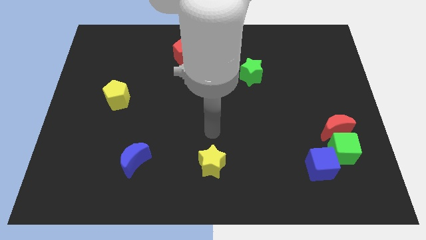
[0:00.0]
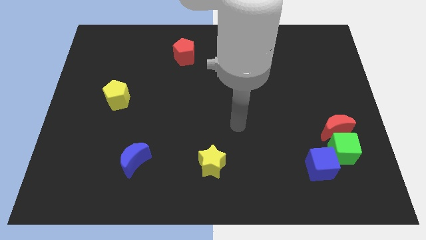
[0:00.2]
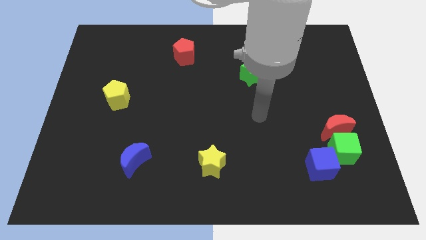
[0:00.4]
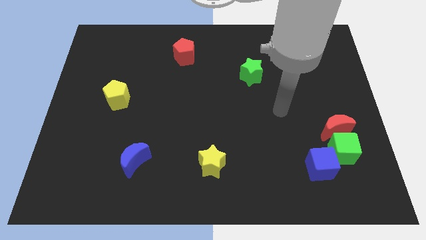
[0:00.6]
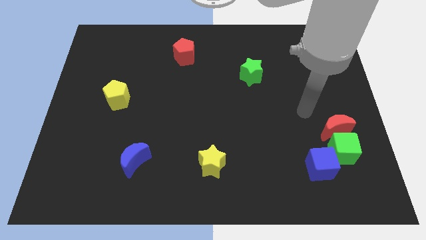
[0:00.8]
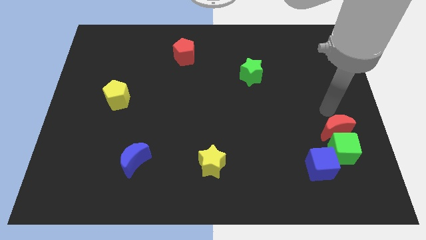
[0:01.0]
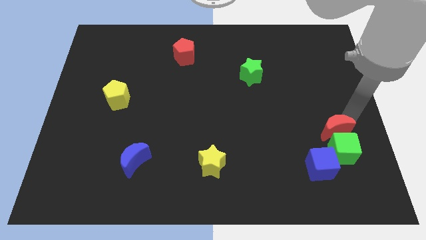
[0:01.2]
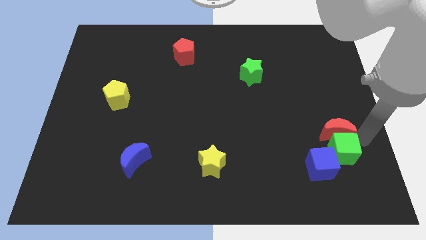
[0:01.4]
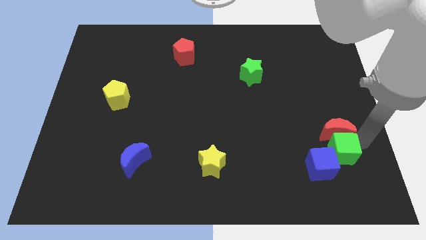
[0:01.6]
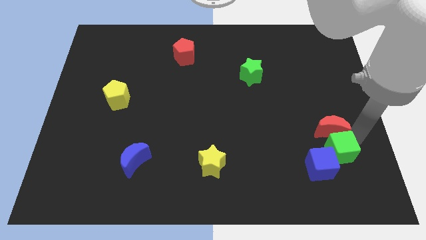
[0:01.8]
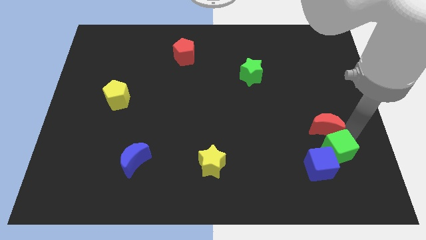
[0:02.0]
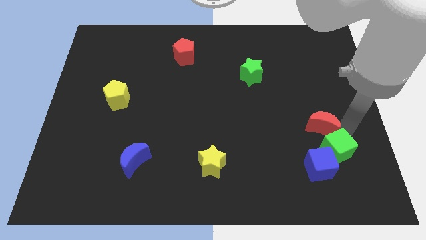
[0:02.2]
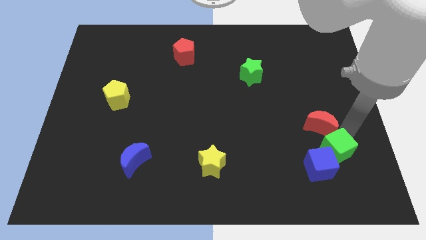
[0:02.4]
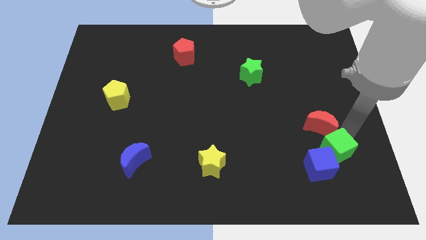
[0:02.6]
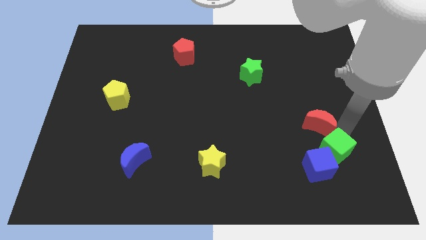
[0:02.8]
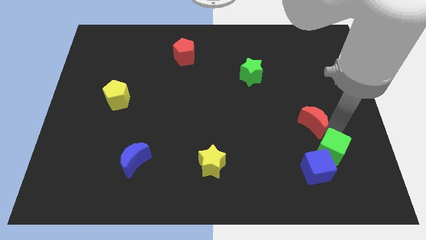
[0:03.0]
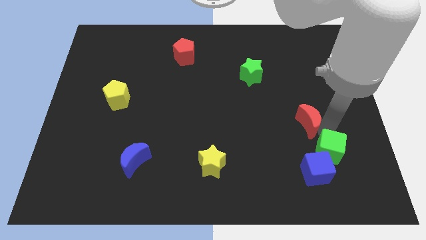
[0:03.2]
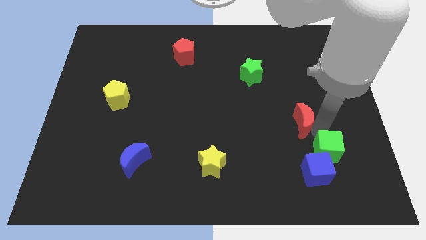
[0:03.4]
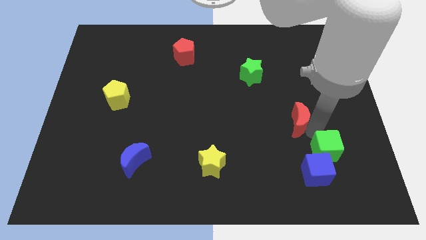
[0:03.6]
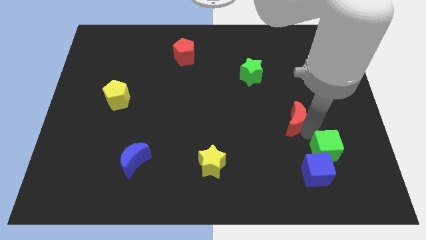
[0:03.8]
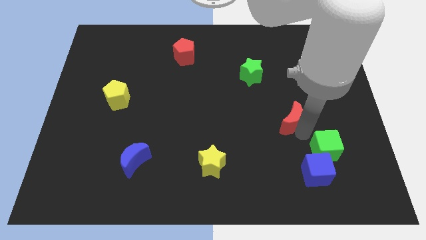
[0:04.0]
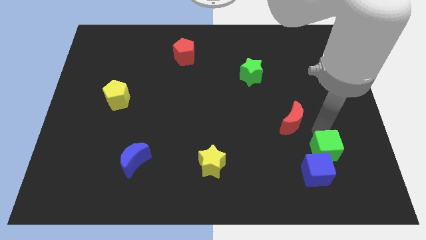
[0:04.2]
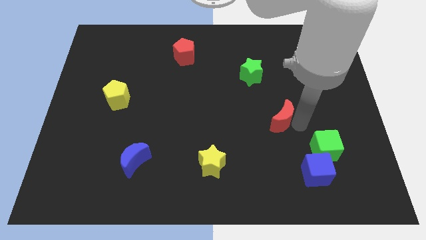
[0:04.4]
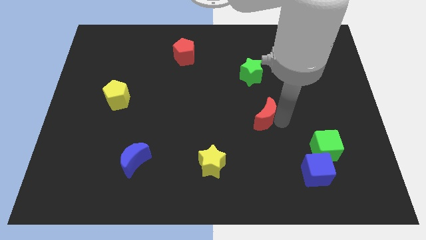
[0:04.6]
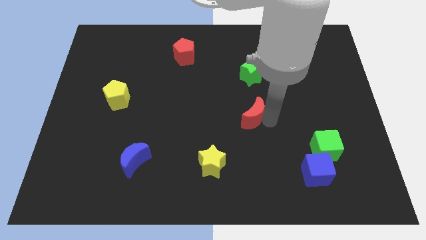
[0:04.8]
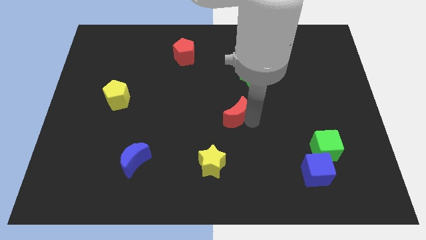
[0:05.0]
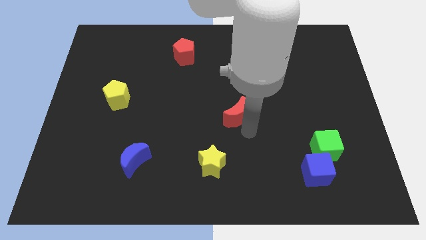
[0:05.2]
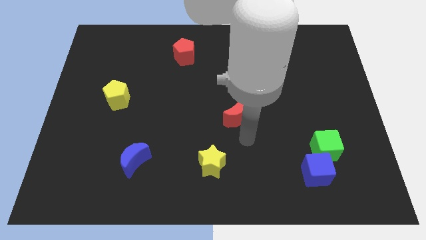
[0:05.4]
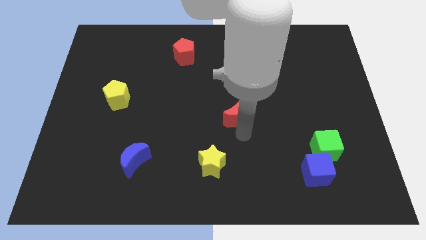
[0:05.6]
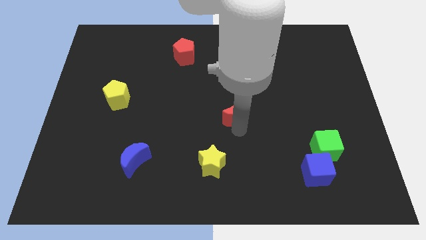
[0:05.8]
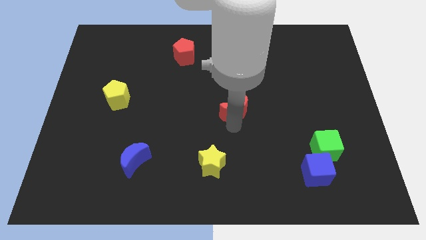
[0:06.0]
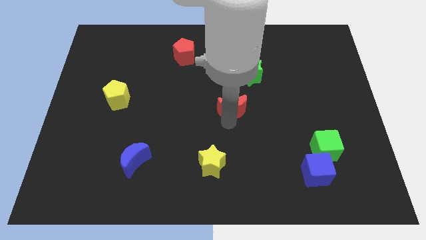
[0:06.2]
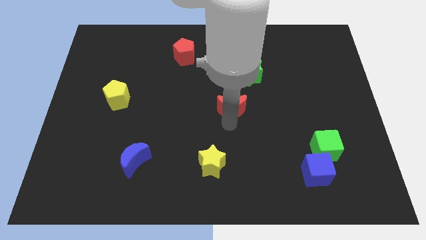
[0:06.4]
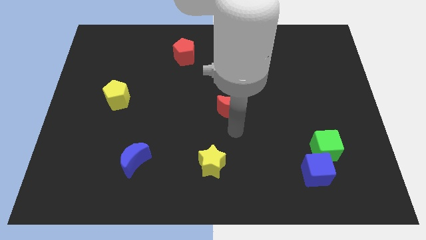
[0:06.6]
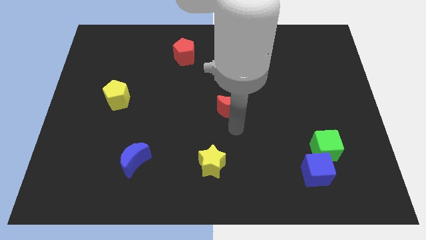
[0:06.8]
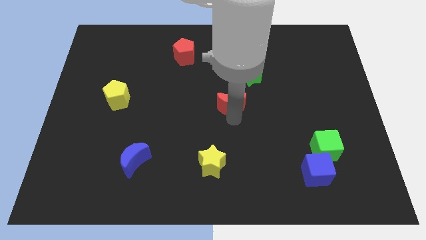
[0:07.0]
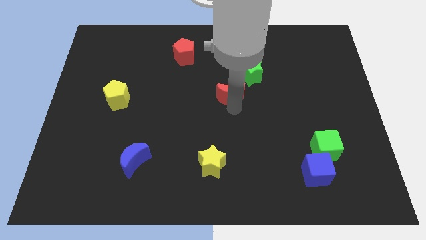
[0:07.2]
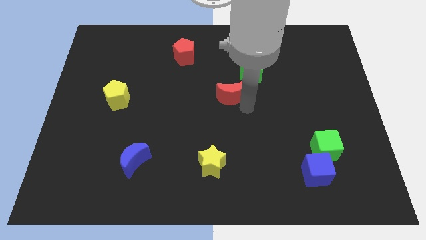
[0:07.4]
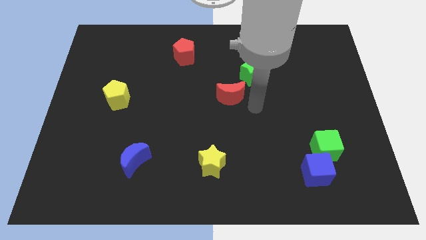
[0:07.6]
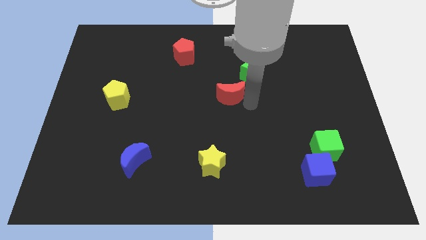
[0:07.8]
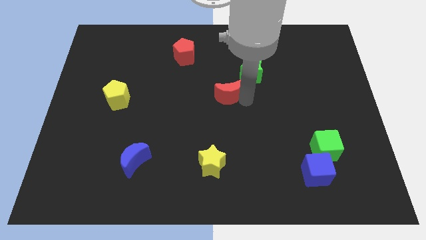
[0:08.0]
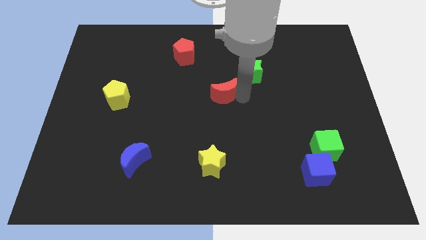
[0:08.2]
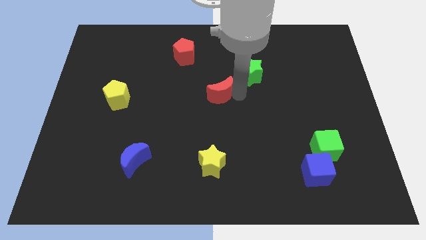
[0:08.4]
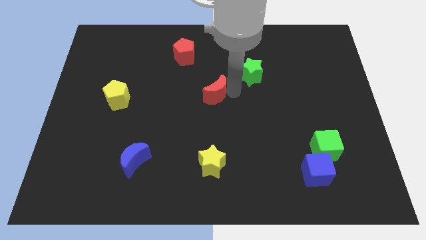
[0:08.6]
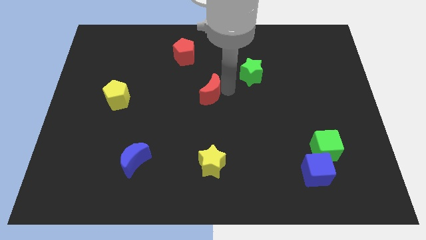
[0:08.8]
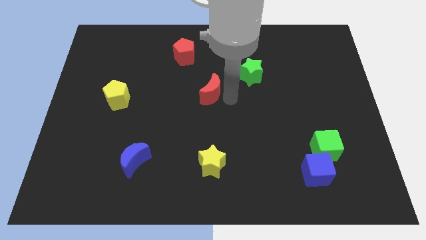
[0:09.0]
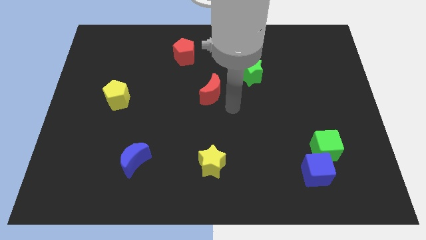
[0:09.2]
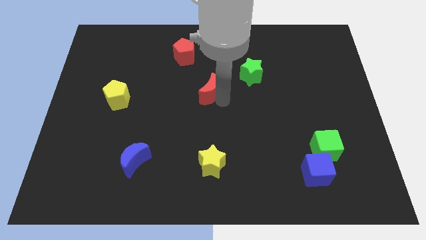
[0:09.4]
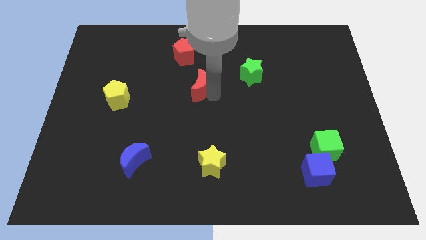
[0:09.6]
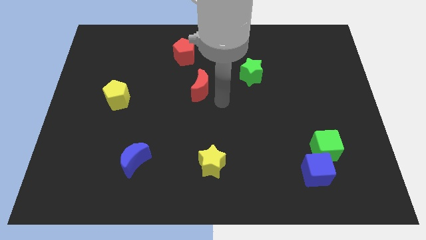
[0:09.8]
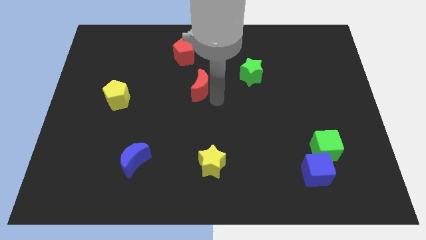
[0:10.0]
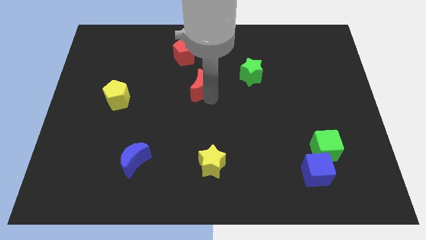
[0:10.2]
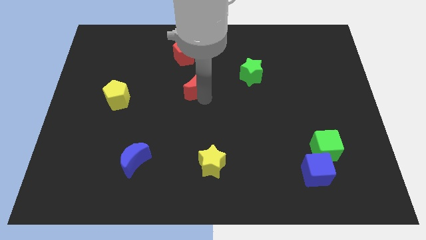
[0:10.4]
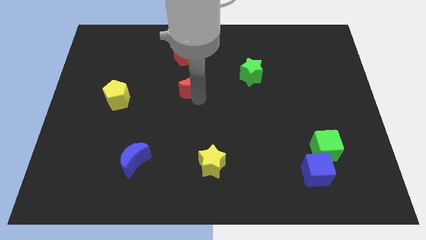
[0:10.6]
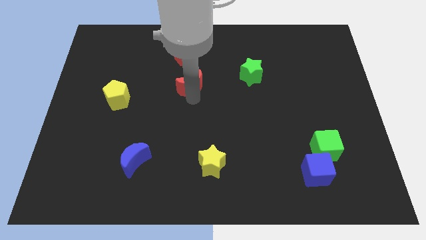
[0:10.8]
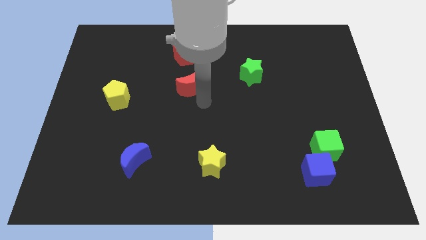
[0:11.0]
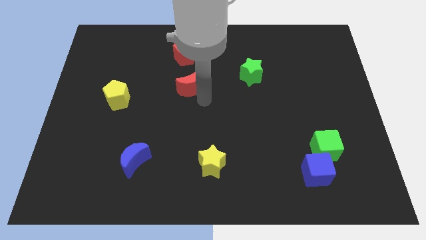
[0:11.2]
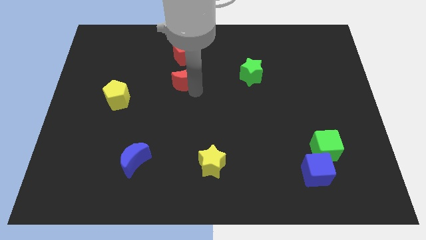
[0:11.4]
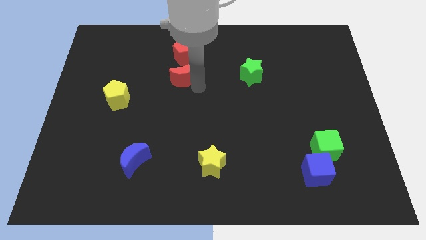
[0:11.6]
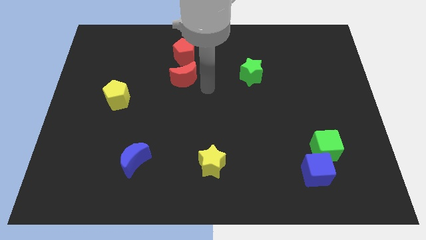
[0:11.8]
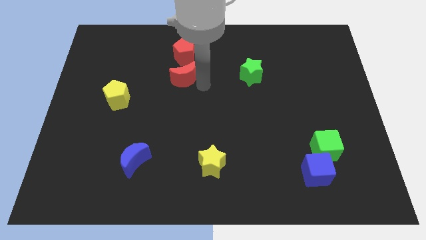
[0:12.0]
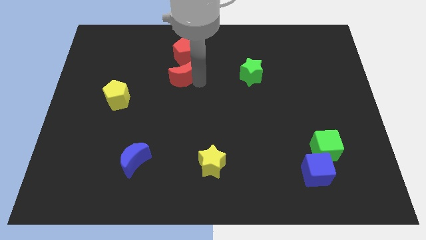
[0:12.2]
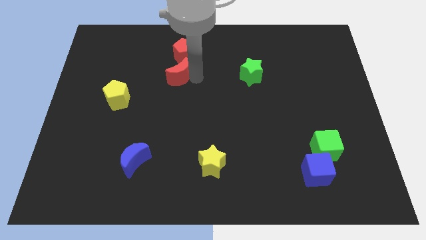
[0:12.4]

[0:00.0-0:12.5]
push the red moon to the bottom left of the red pentagon

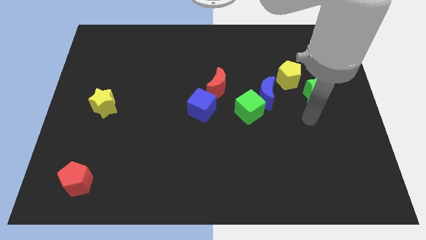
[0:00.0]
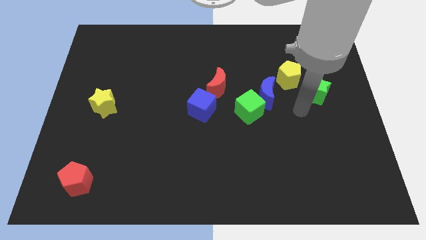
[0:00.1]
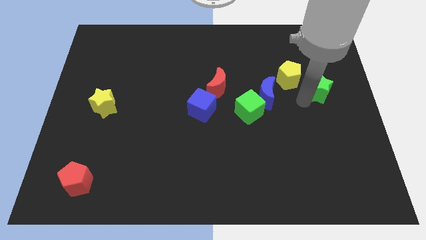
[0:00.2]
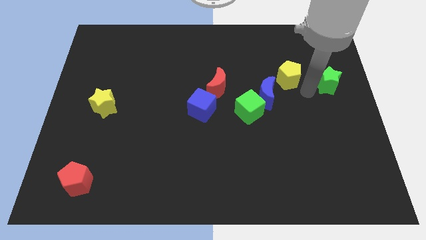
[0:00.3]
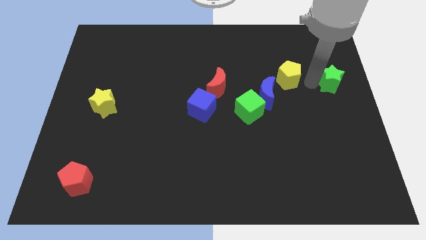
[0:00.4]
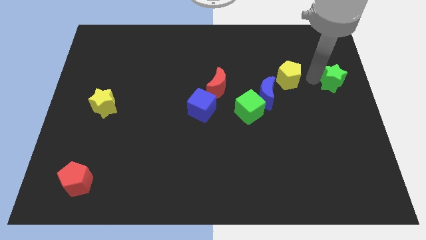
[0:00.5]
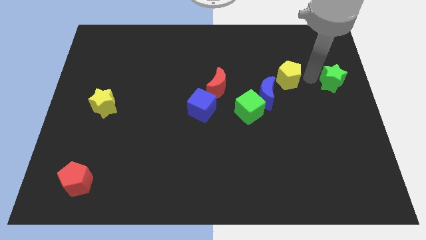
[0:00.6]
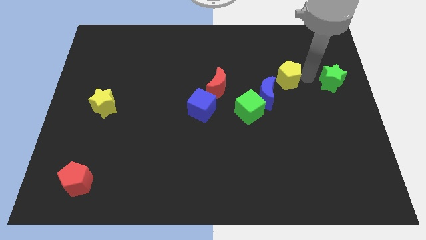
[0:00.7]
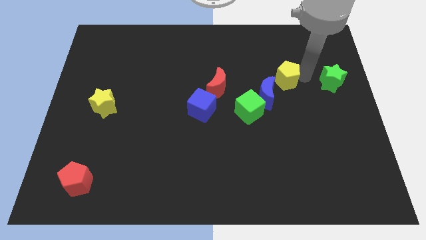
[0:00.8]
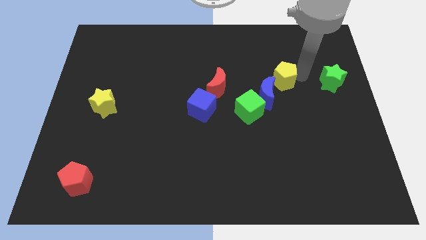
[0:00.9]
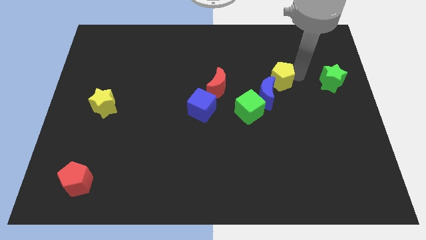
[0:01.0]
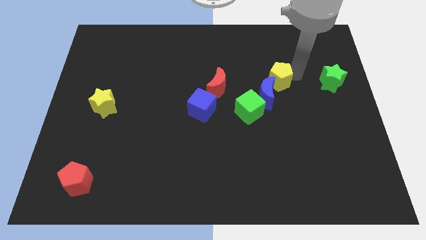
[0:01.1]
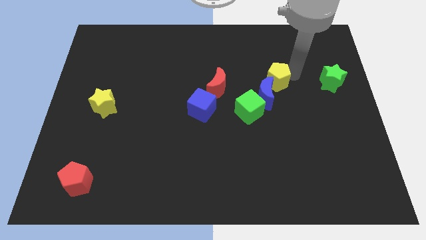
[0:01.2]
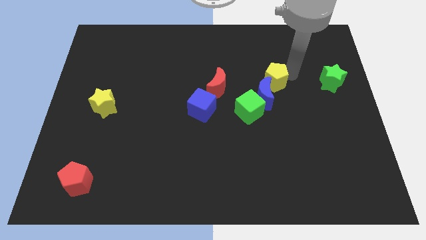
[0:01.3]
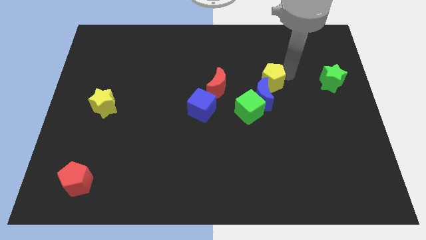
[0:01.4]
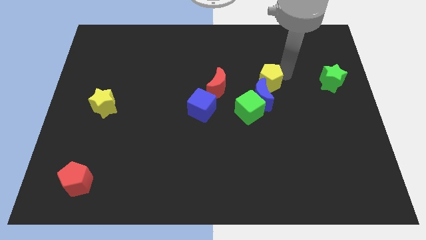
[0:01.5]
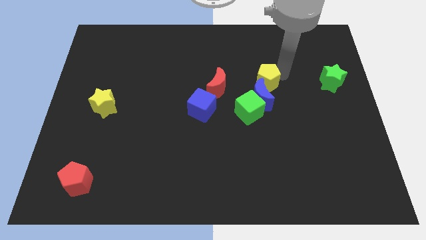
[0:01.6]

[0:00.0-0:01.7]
move the yellow pentagon to the top side of the green cube
